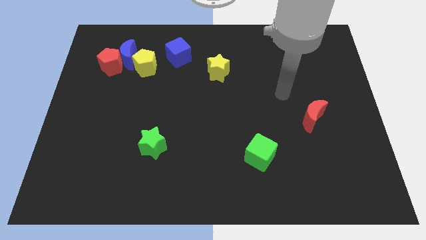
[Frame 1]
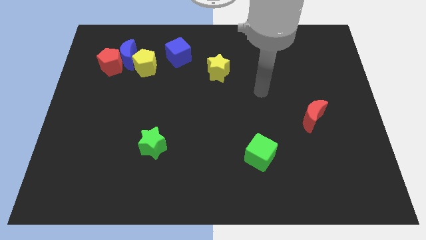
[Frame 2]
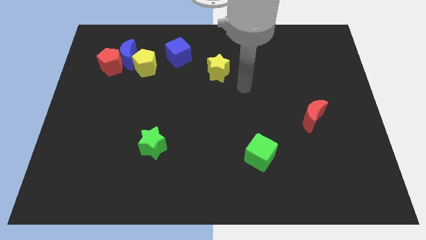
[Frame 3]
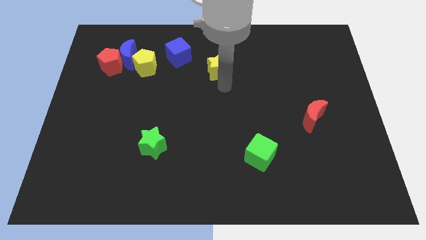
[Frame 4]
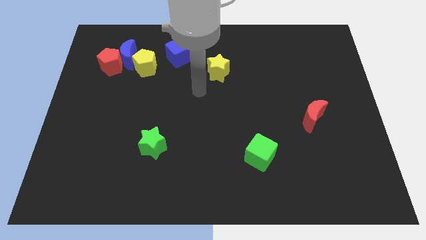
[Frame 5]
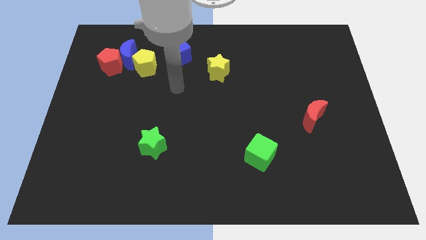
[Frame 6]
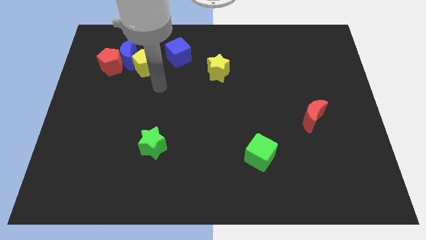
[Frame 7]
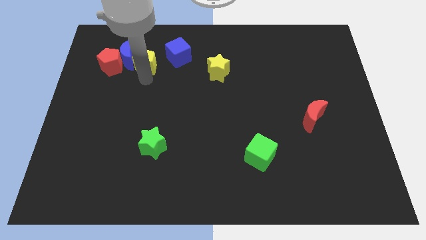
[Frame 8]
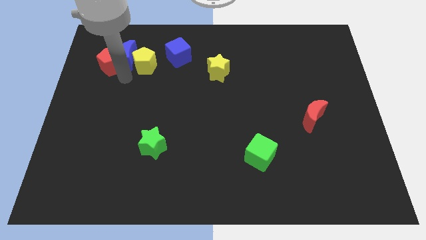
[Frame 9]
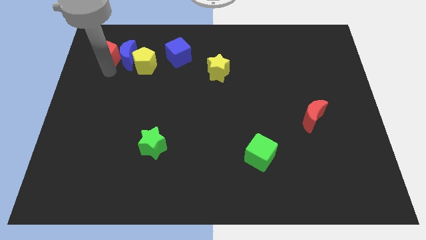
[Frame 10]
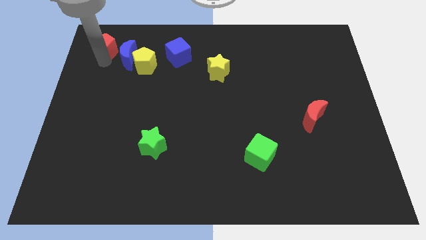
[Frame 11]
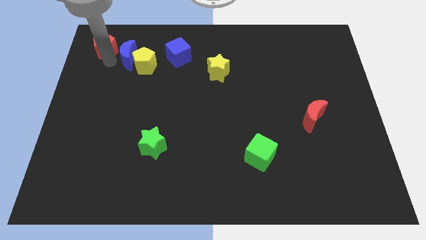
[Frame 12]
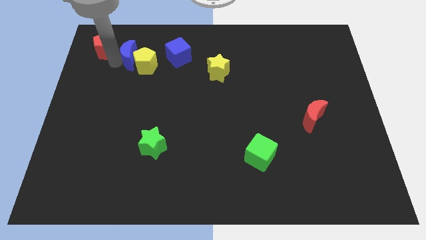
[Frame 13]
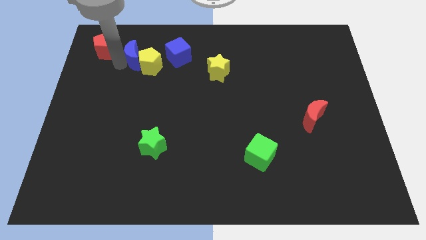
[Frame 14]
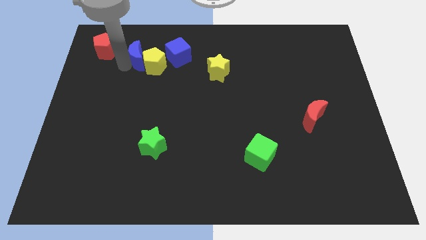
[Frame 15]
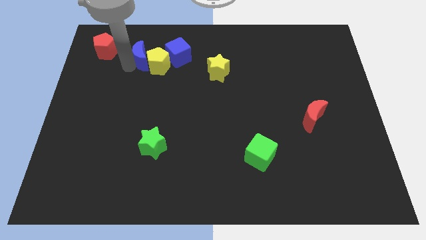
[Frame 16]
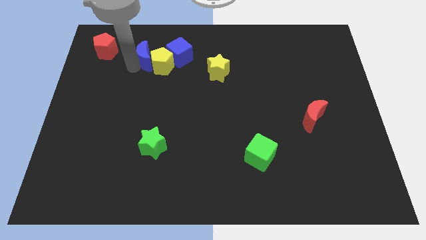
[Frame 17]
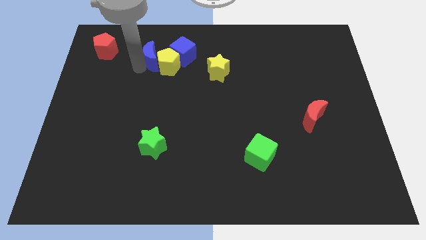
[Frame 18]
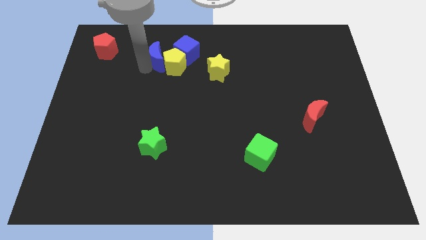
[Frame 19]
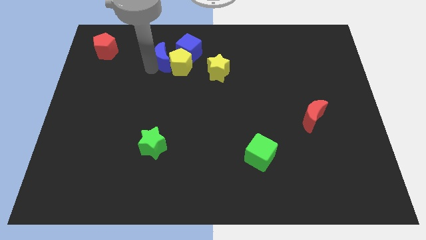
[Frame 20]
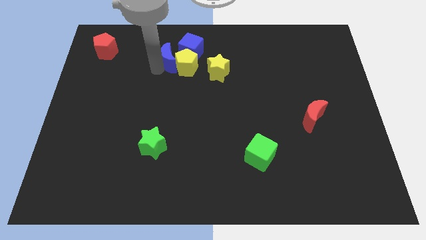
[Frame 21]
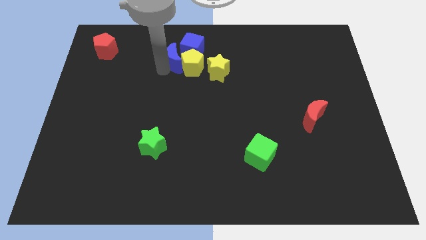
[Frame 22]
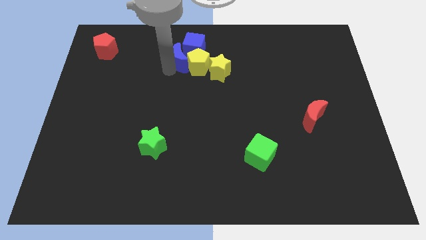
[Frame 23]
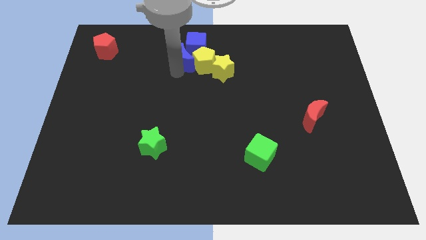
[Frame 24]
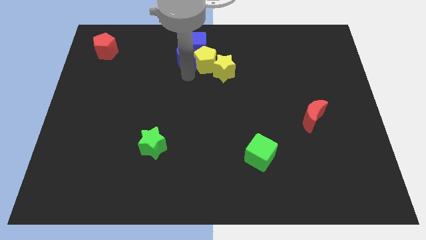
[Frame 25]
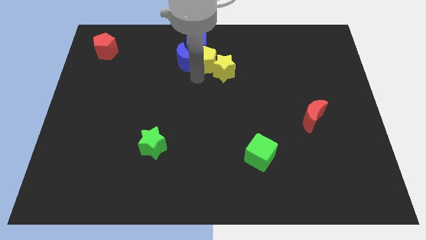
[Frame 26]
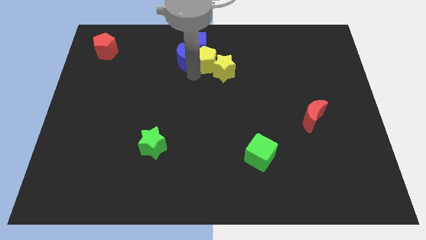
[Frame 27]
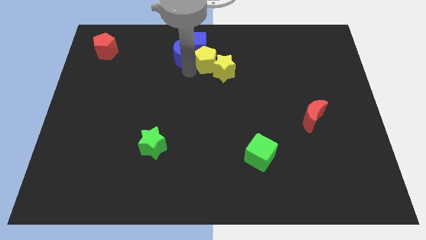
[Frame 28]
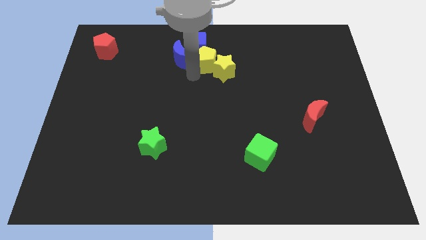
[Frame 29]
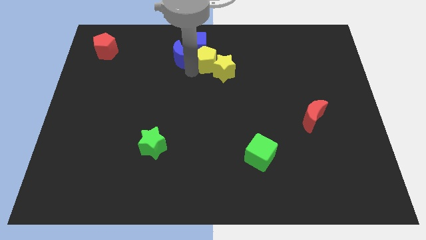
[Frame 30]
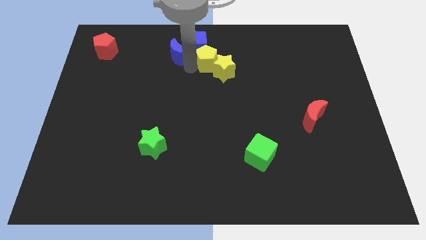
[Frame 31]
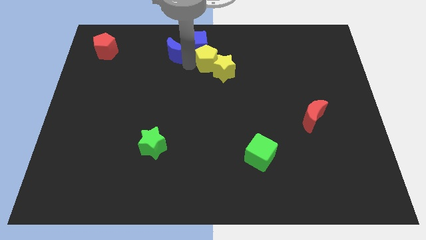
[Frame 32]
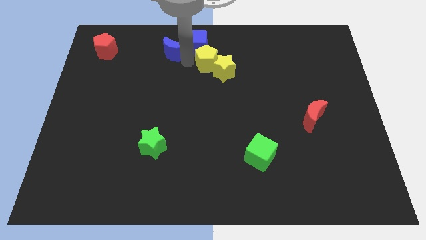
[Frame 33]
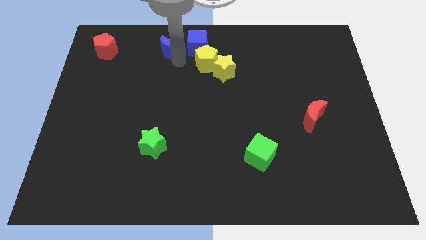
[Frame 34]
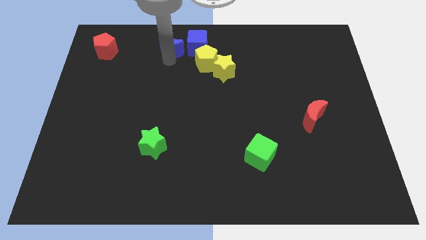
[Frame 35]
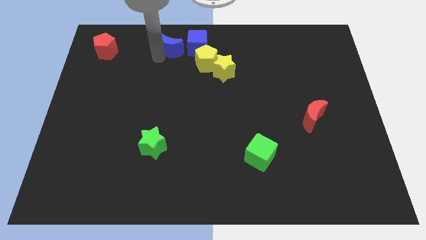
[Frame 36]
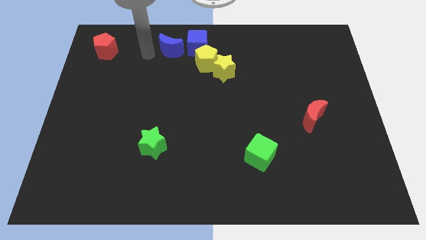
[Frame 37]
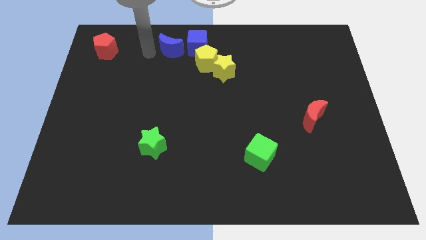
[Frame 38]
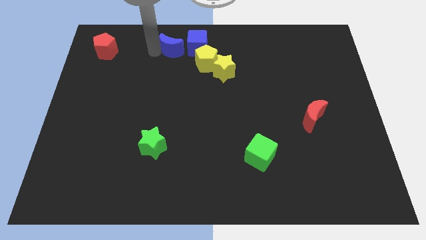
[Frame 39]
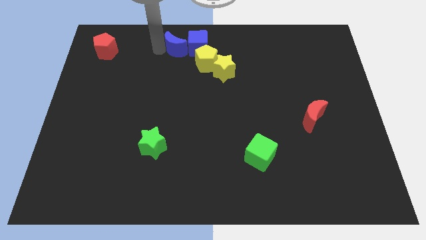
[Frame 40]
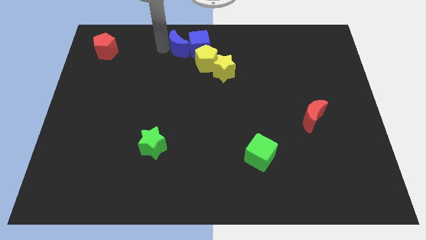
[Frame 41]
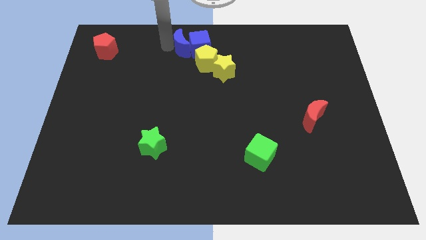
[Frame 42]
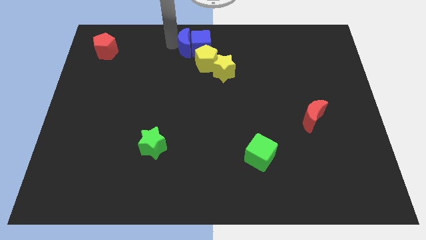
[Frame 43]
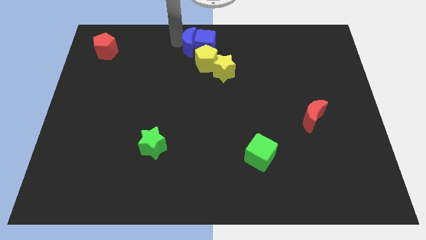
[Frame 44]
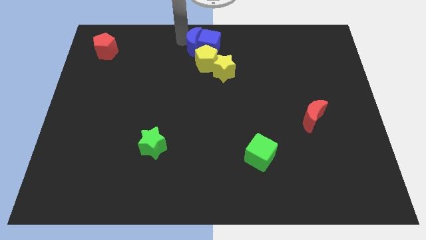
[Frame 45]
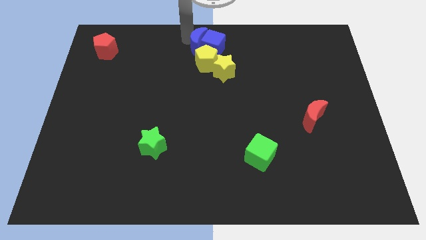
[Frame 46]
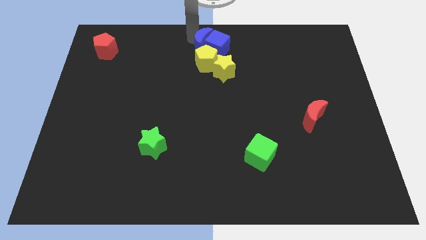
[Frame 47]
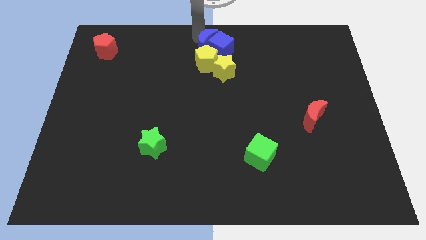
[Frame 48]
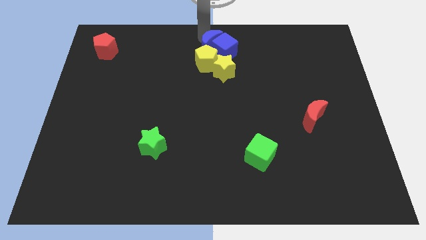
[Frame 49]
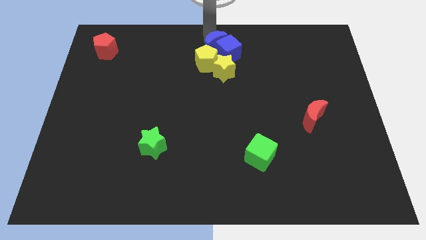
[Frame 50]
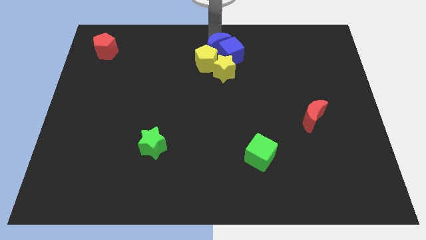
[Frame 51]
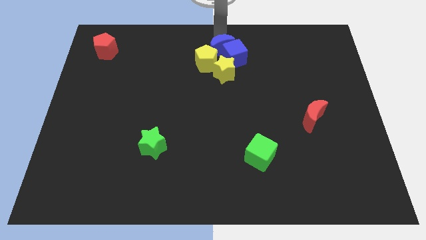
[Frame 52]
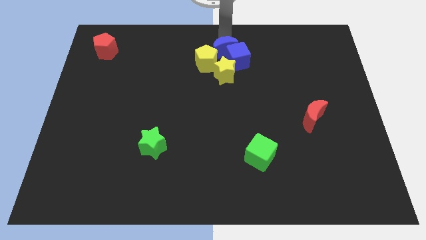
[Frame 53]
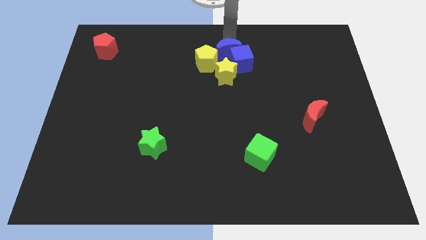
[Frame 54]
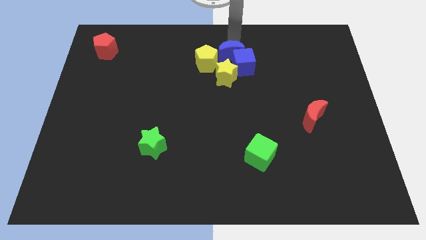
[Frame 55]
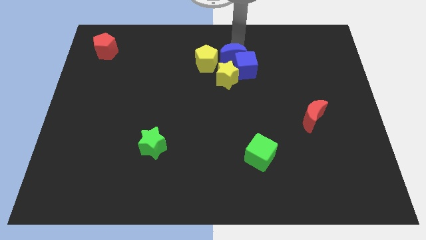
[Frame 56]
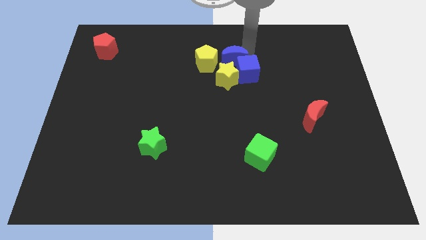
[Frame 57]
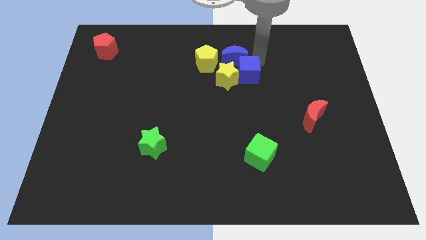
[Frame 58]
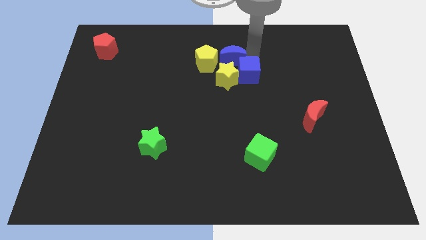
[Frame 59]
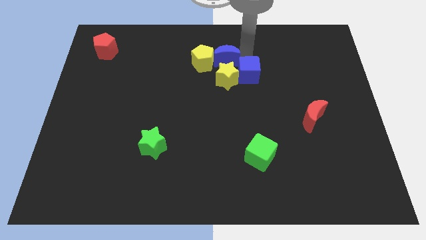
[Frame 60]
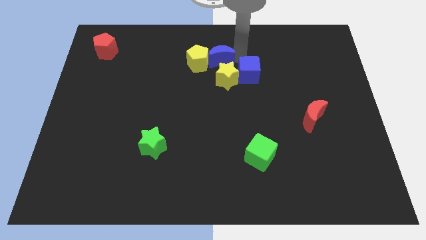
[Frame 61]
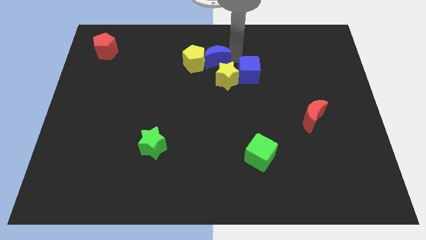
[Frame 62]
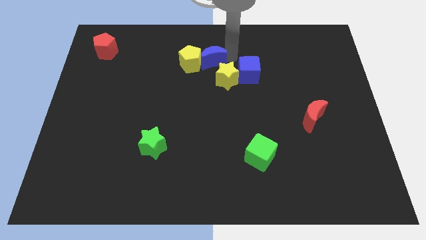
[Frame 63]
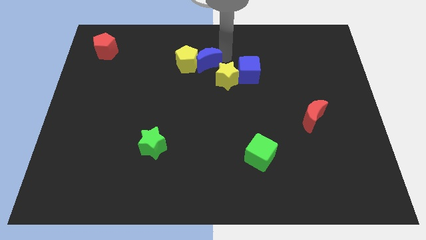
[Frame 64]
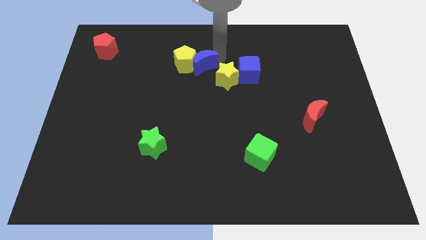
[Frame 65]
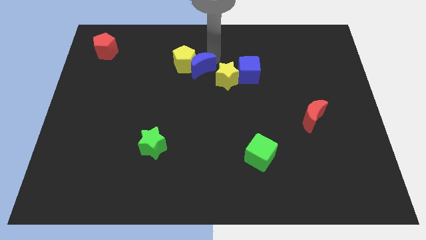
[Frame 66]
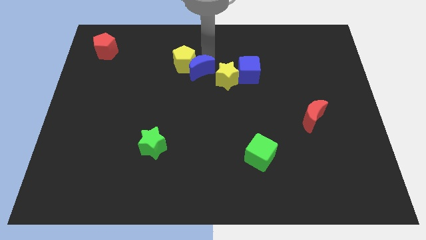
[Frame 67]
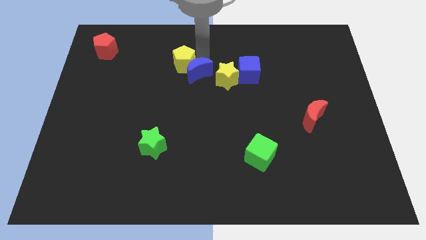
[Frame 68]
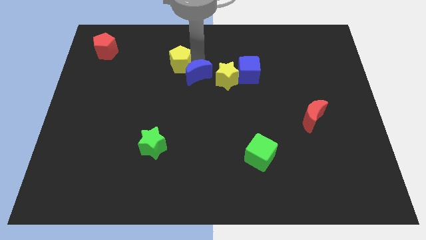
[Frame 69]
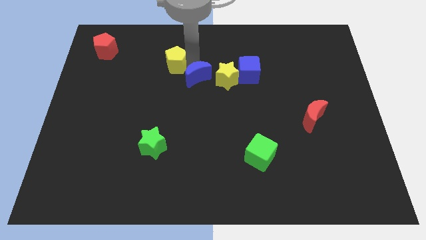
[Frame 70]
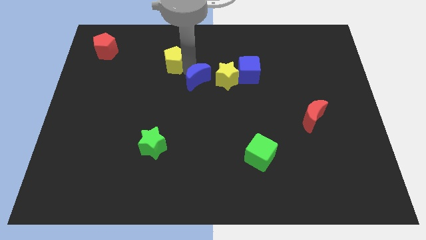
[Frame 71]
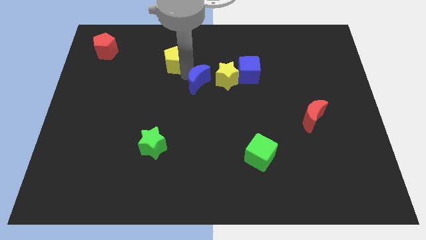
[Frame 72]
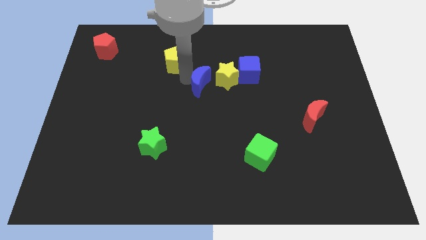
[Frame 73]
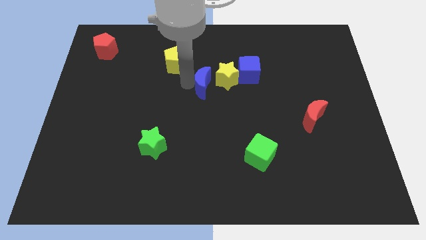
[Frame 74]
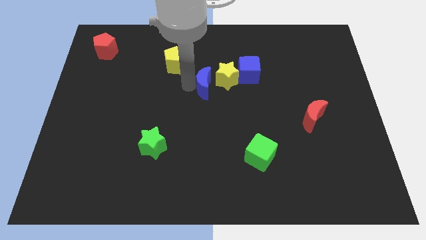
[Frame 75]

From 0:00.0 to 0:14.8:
slide the blue moon next to the yellow star

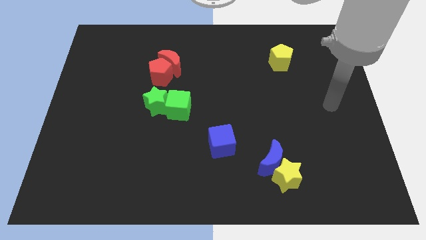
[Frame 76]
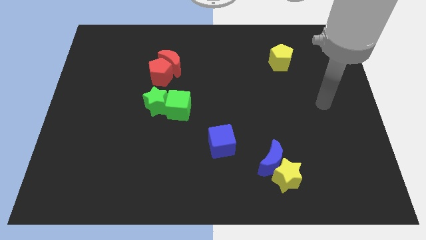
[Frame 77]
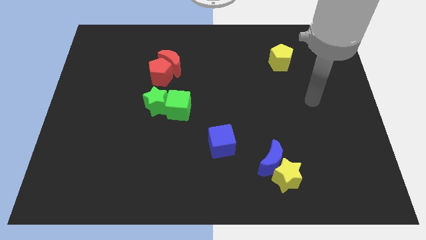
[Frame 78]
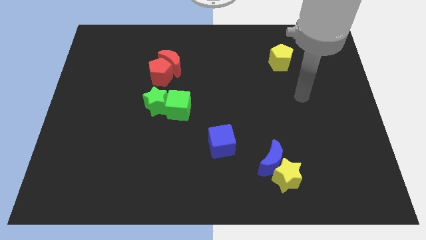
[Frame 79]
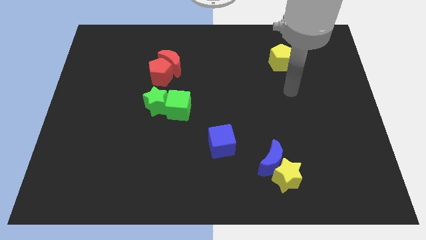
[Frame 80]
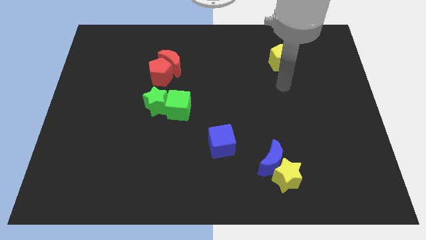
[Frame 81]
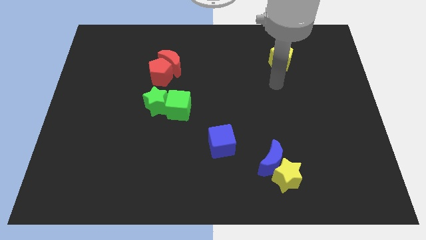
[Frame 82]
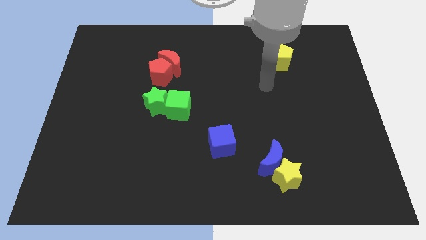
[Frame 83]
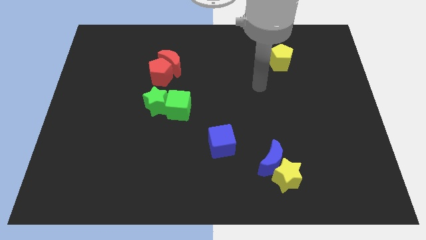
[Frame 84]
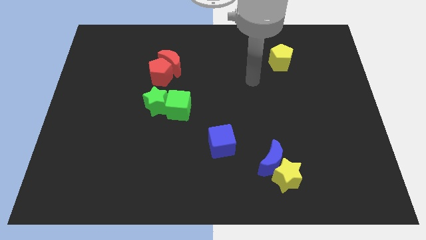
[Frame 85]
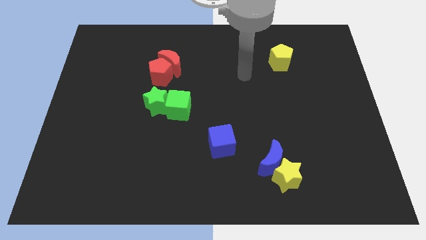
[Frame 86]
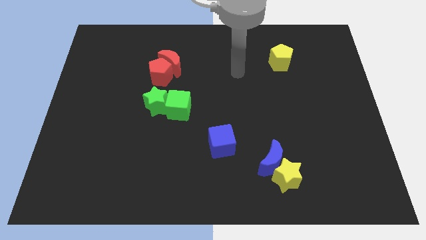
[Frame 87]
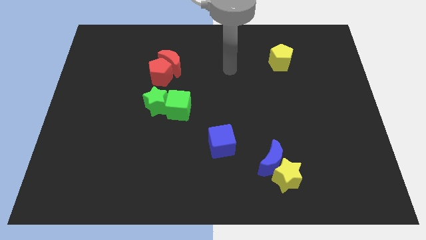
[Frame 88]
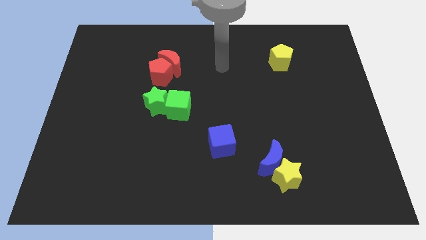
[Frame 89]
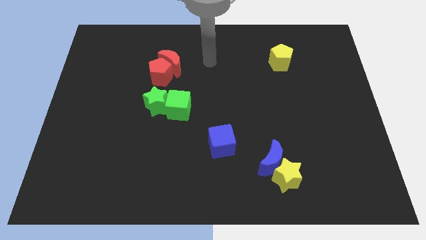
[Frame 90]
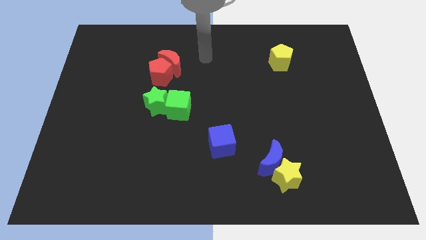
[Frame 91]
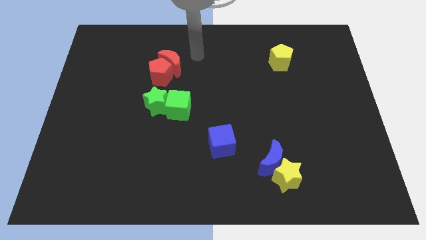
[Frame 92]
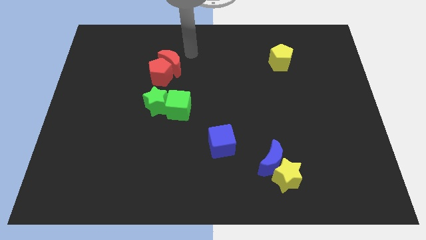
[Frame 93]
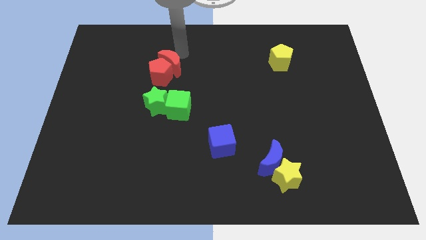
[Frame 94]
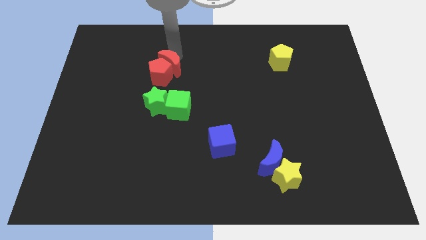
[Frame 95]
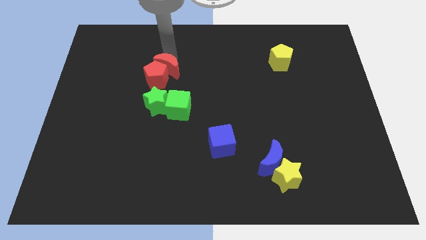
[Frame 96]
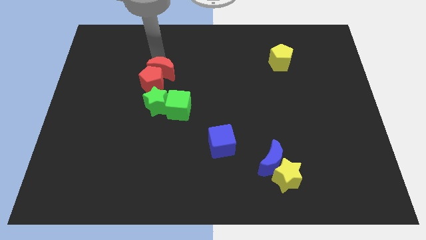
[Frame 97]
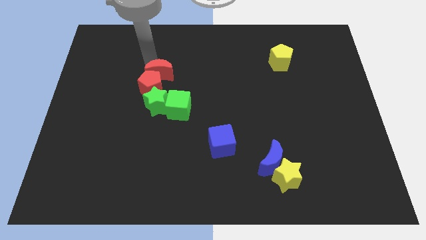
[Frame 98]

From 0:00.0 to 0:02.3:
slide the red pentagon close to the green star
